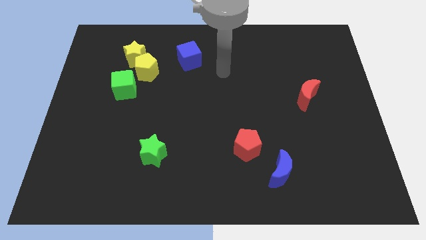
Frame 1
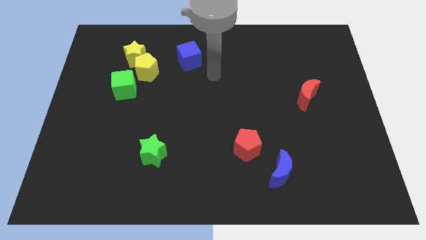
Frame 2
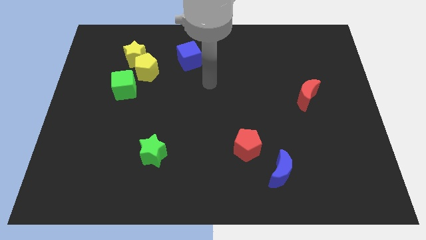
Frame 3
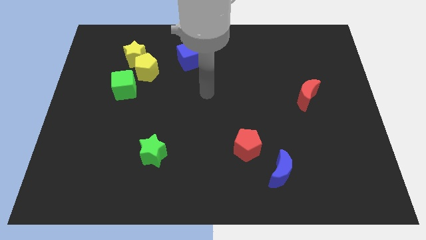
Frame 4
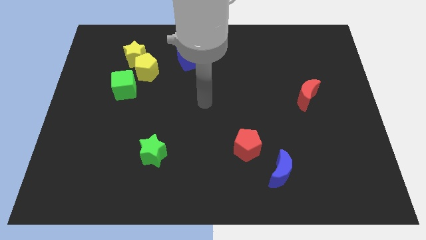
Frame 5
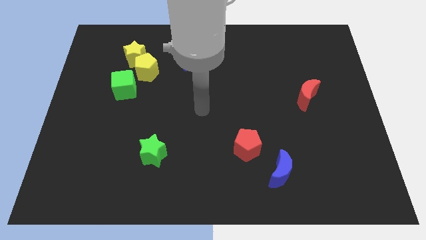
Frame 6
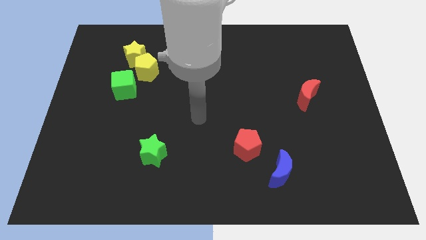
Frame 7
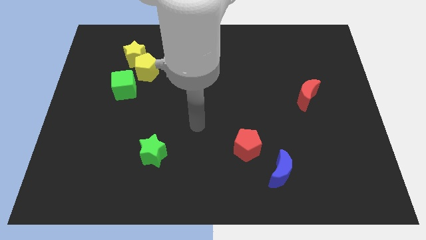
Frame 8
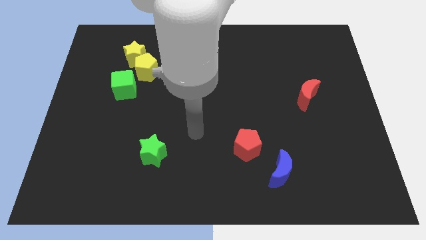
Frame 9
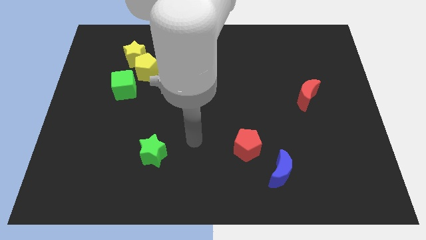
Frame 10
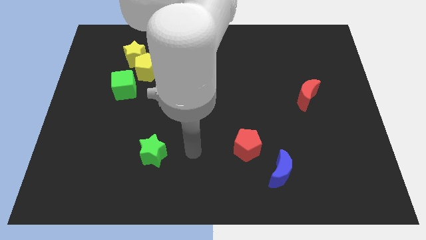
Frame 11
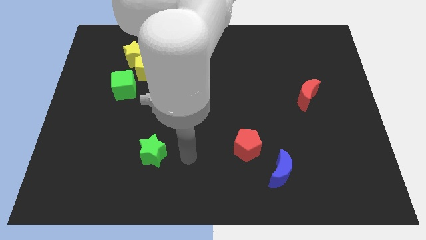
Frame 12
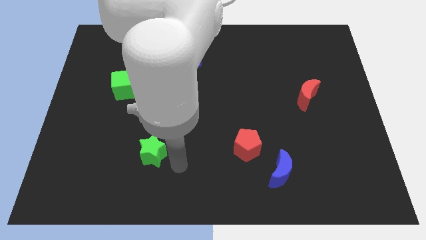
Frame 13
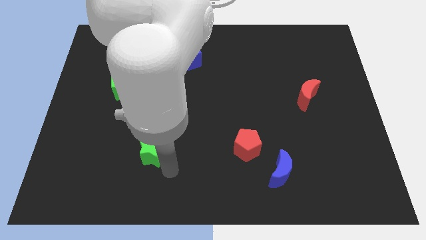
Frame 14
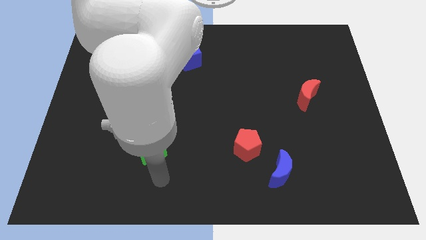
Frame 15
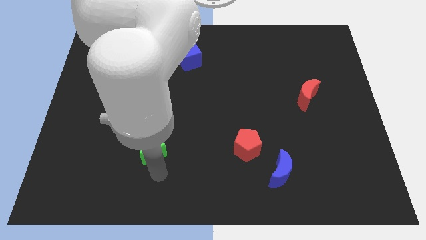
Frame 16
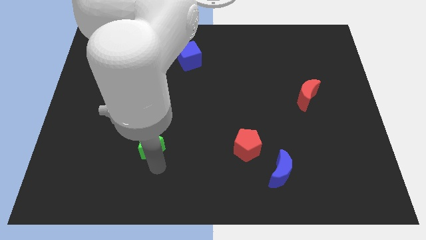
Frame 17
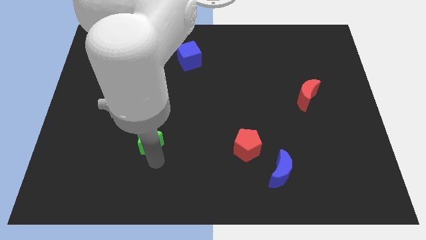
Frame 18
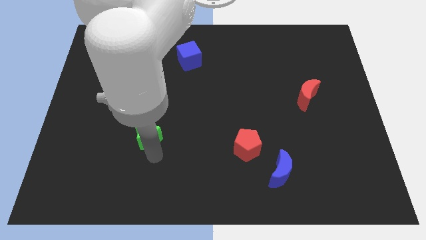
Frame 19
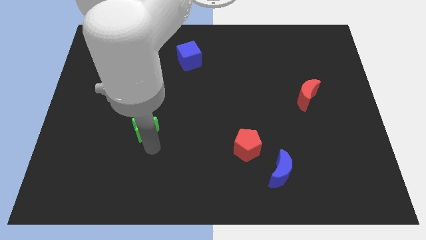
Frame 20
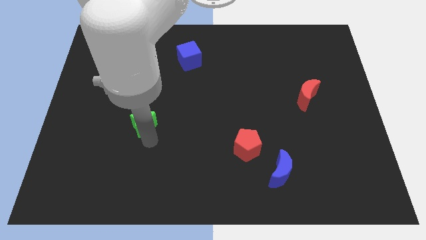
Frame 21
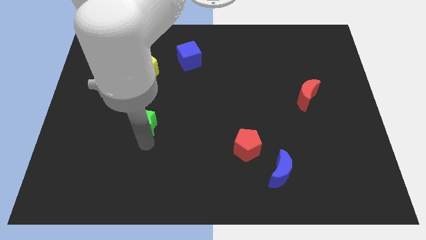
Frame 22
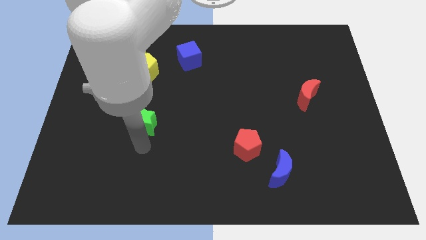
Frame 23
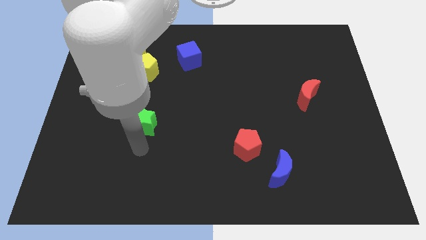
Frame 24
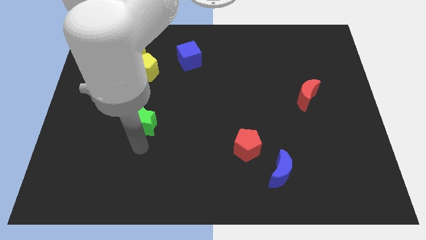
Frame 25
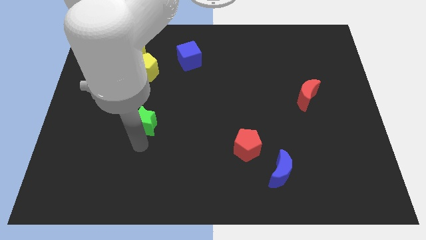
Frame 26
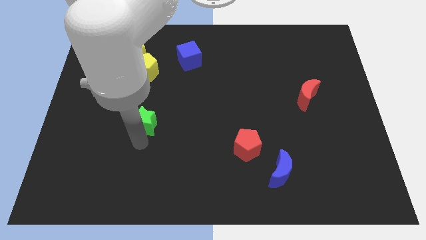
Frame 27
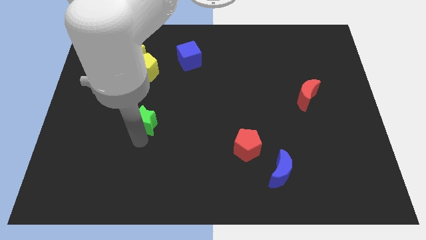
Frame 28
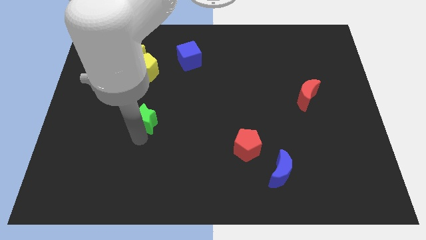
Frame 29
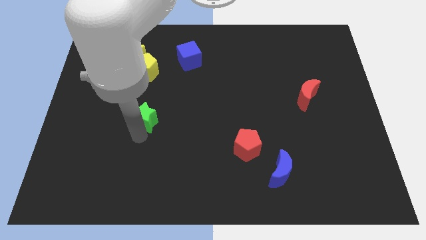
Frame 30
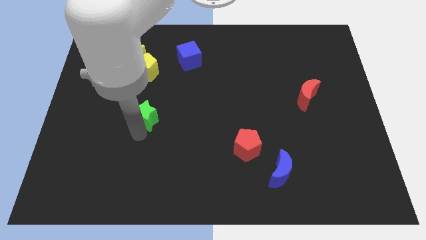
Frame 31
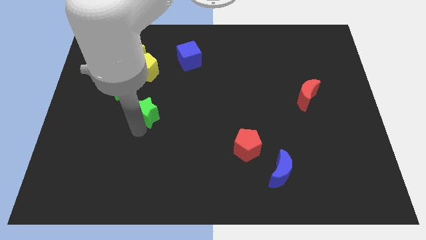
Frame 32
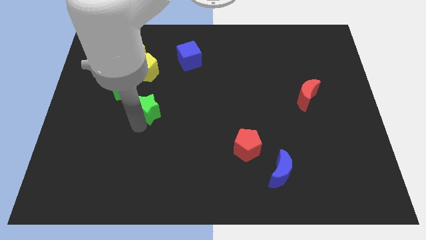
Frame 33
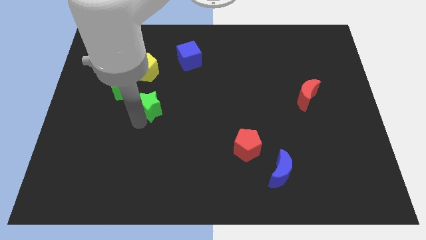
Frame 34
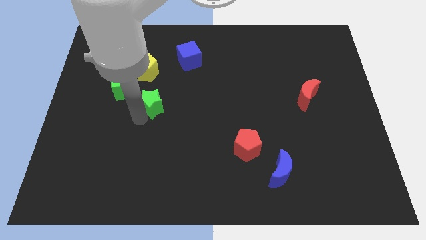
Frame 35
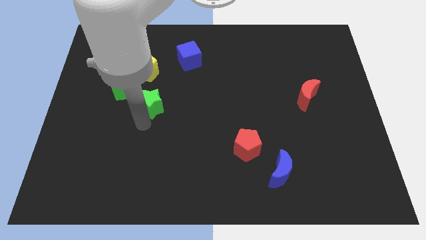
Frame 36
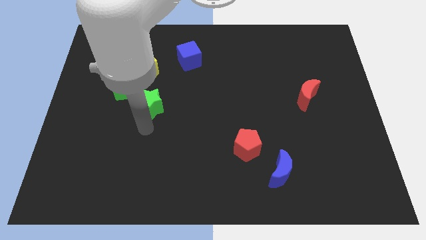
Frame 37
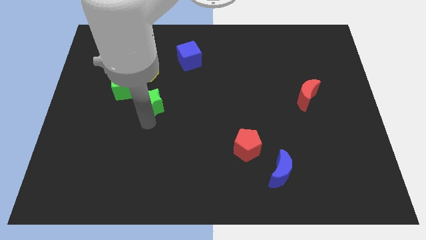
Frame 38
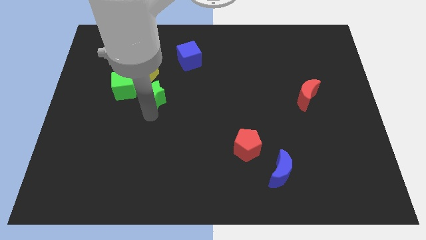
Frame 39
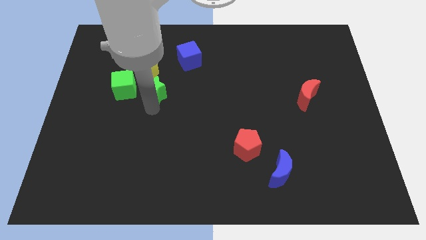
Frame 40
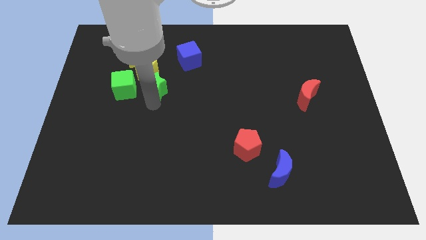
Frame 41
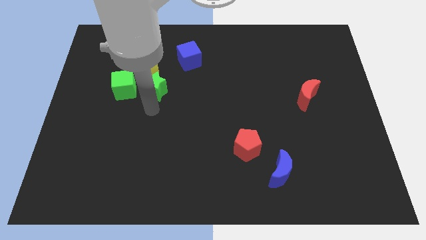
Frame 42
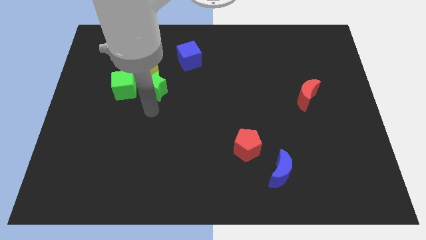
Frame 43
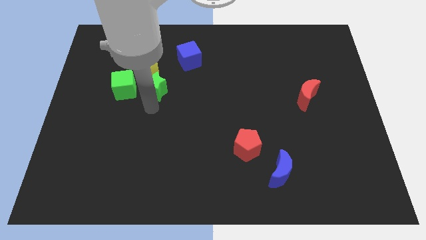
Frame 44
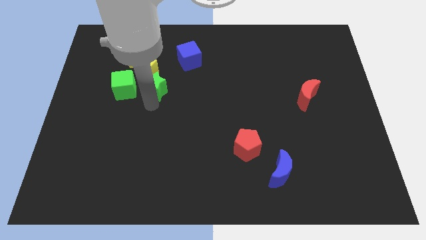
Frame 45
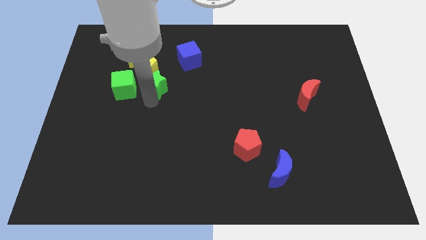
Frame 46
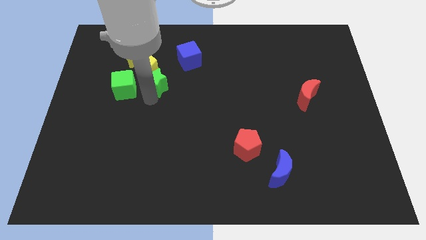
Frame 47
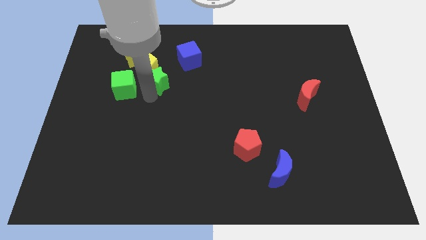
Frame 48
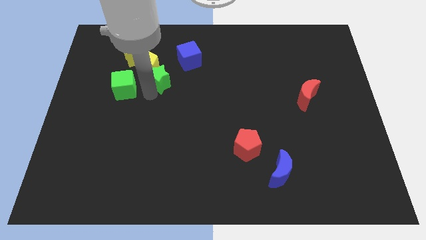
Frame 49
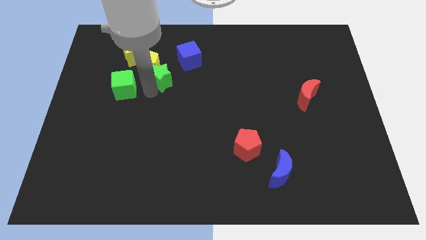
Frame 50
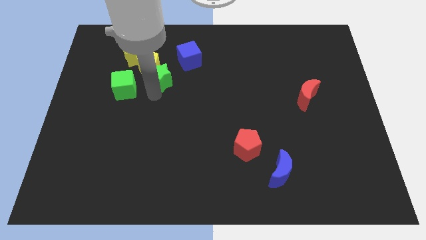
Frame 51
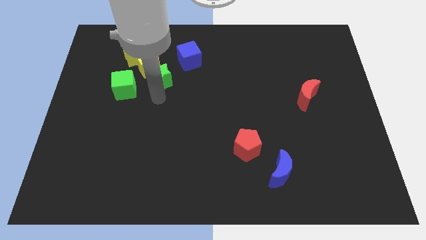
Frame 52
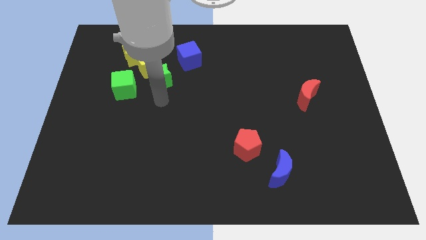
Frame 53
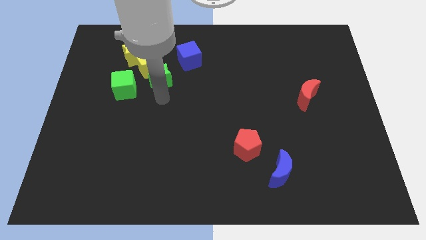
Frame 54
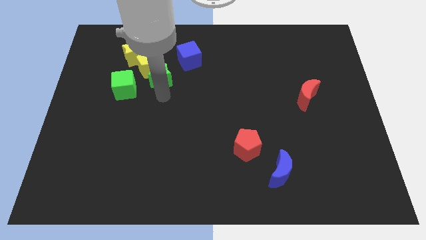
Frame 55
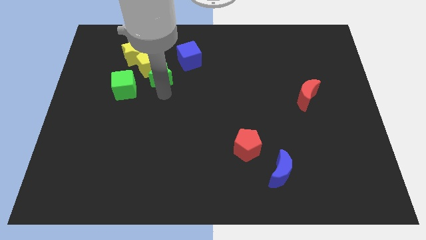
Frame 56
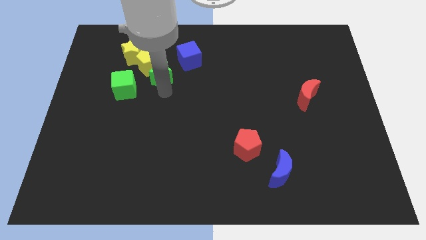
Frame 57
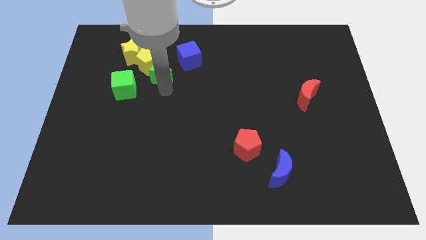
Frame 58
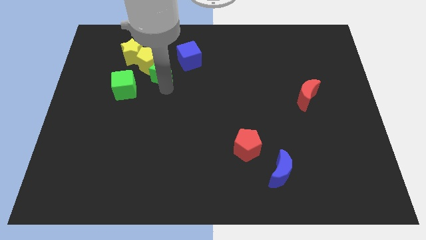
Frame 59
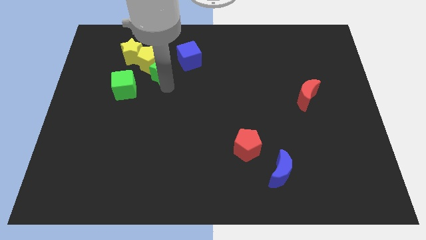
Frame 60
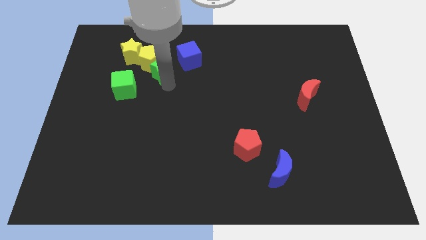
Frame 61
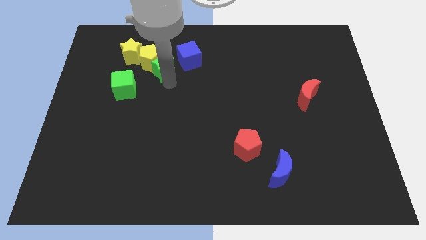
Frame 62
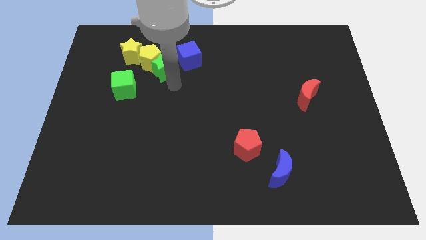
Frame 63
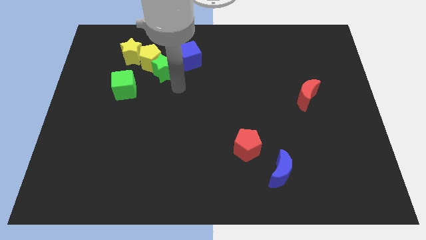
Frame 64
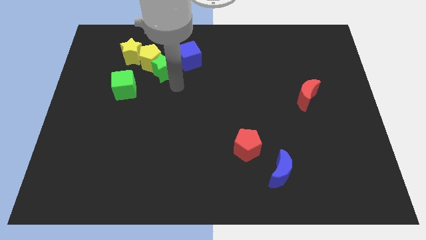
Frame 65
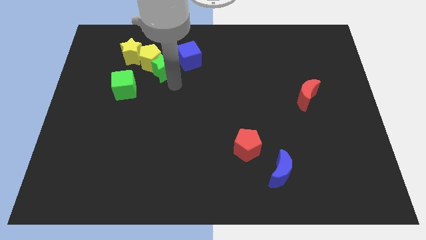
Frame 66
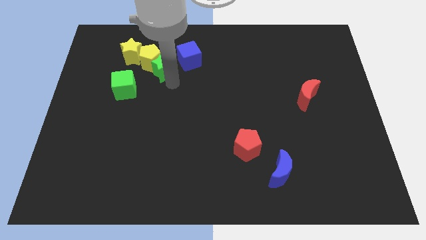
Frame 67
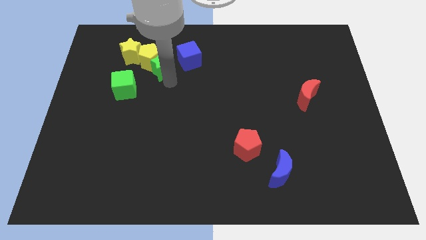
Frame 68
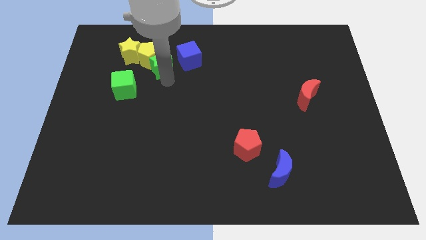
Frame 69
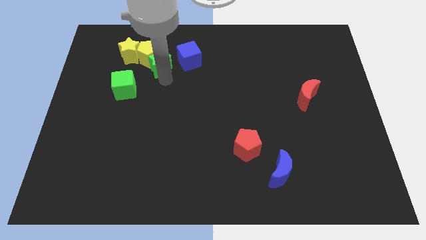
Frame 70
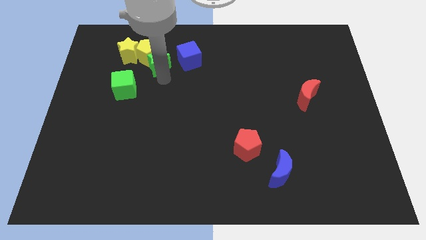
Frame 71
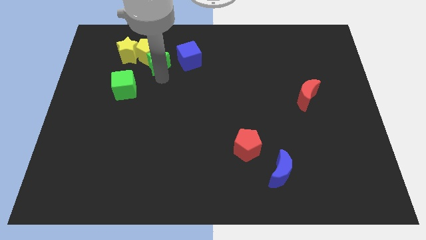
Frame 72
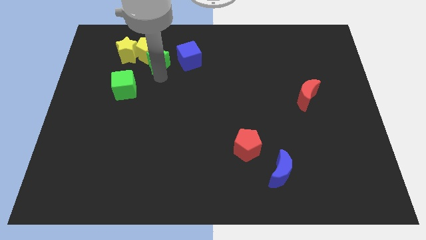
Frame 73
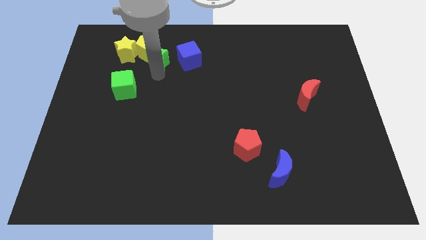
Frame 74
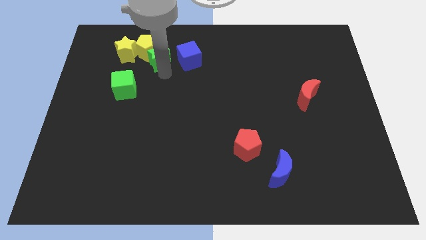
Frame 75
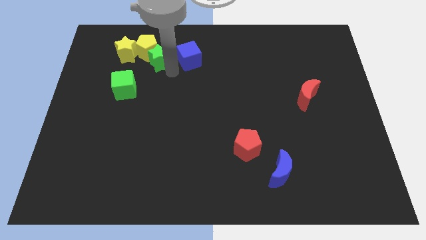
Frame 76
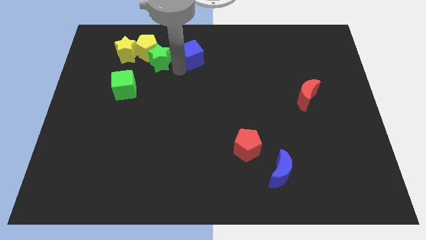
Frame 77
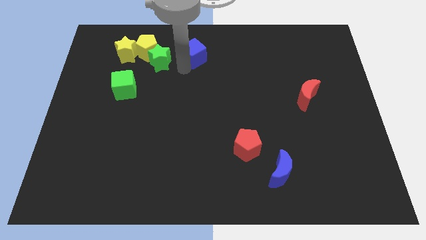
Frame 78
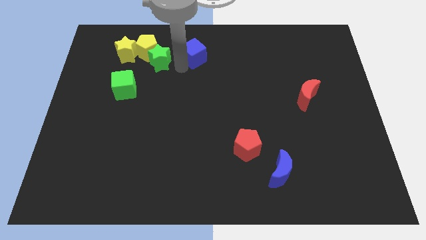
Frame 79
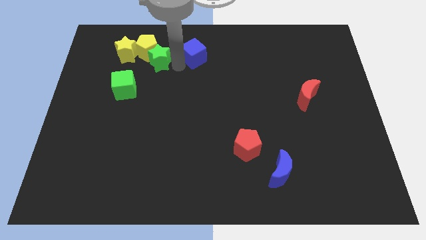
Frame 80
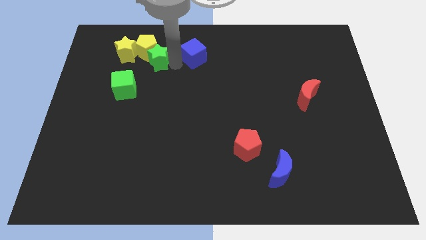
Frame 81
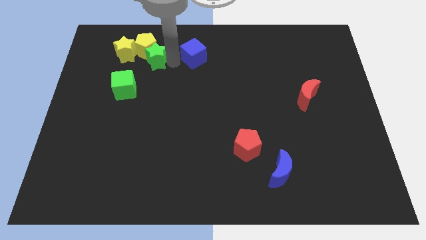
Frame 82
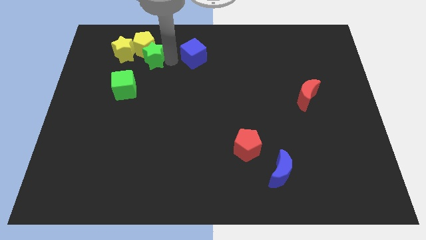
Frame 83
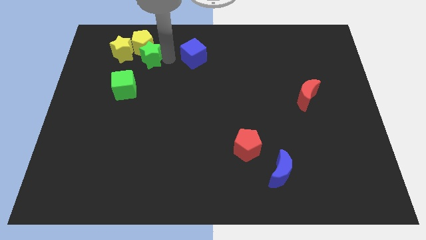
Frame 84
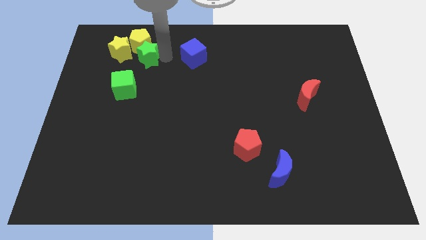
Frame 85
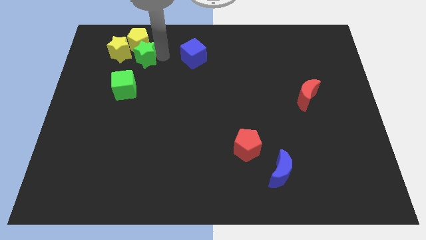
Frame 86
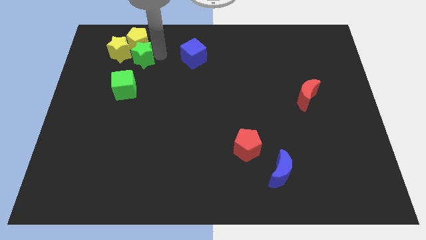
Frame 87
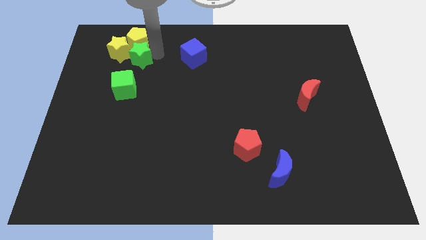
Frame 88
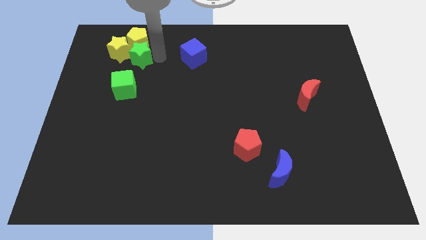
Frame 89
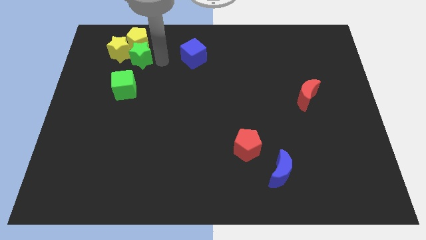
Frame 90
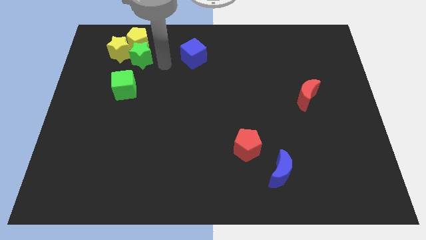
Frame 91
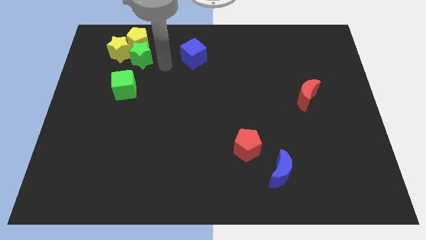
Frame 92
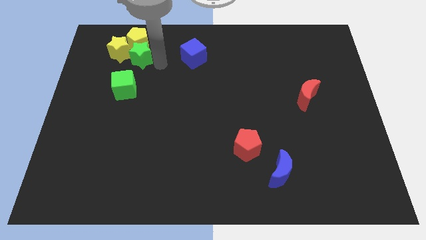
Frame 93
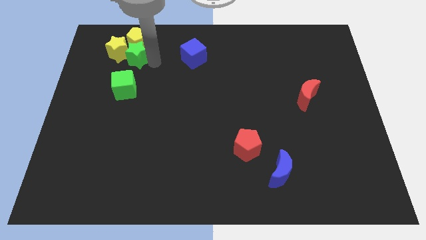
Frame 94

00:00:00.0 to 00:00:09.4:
move the green star towards the yellow star
